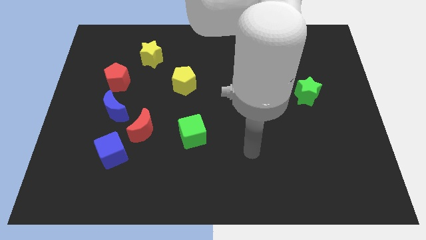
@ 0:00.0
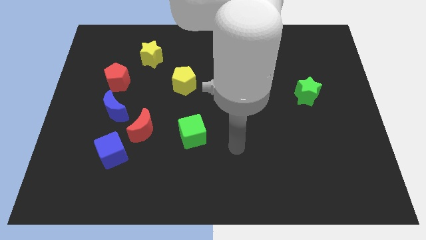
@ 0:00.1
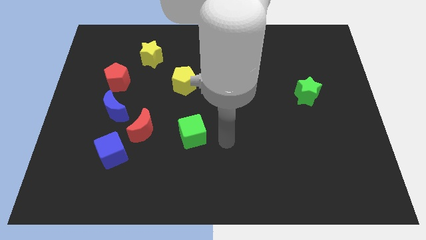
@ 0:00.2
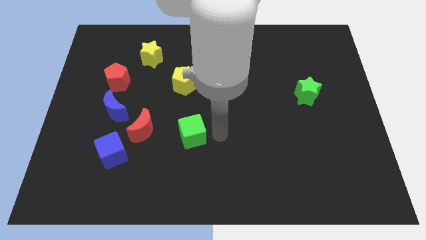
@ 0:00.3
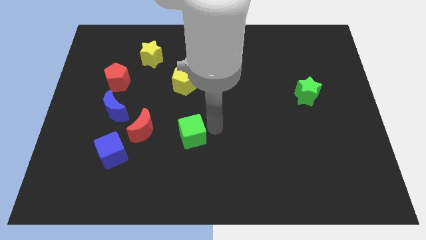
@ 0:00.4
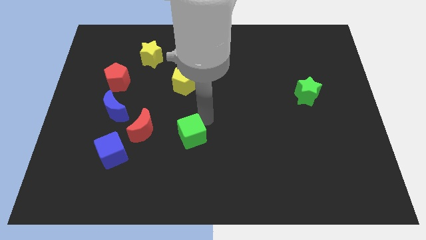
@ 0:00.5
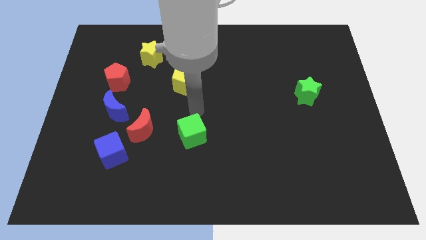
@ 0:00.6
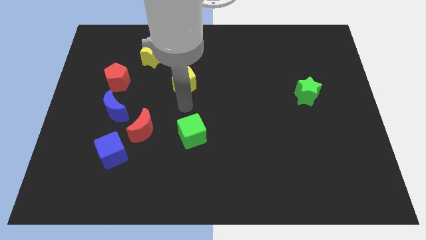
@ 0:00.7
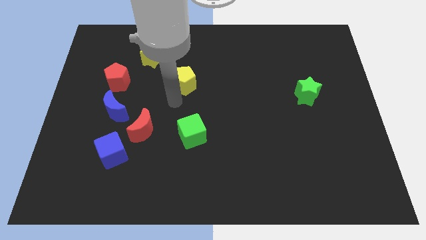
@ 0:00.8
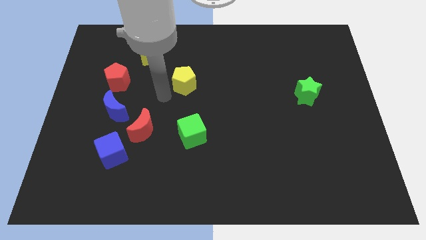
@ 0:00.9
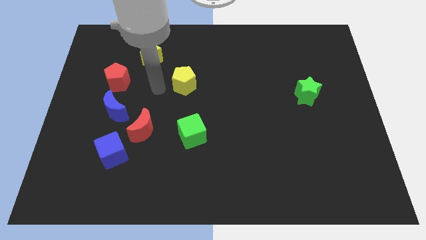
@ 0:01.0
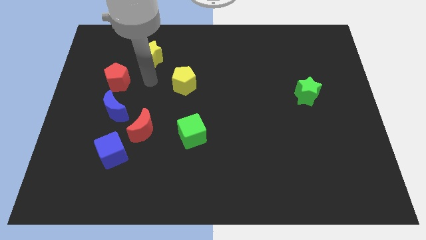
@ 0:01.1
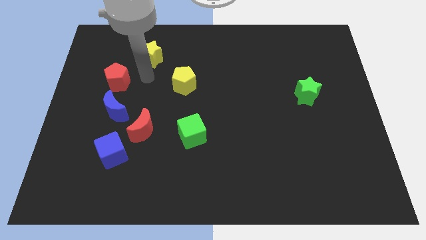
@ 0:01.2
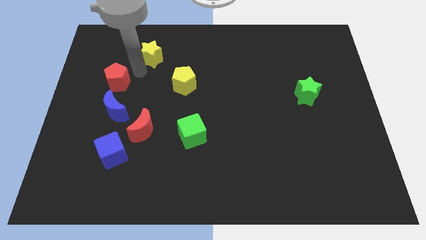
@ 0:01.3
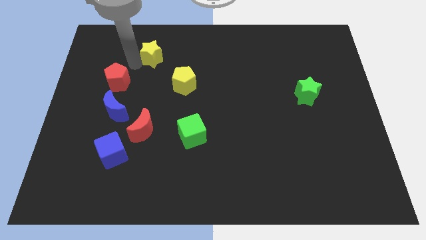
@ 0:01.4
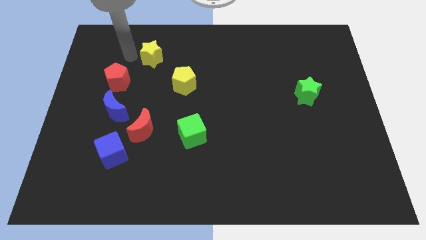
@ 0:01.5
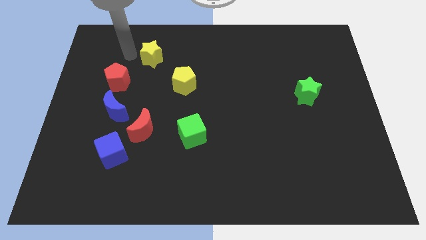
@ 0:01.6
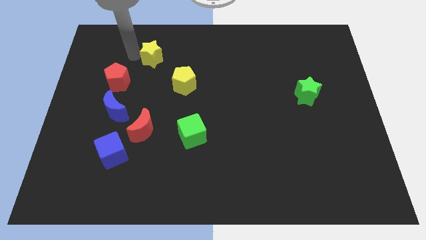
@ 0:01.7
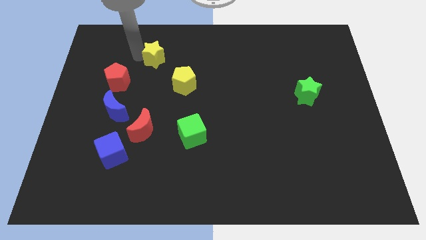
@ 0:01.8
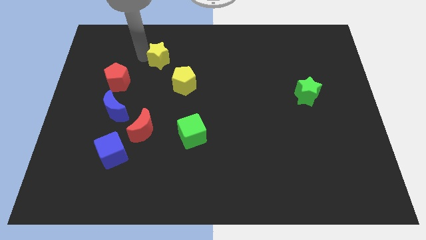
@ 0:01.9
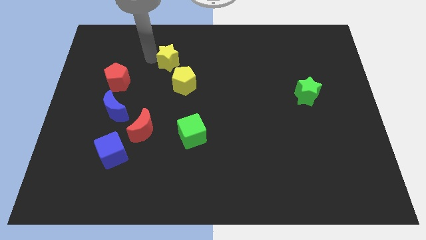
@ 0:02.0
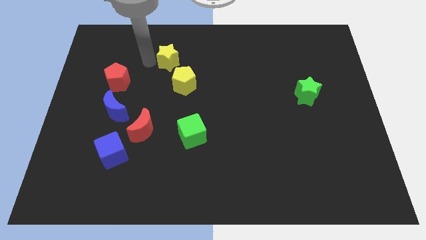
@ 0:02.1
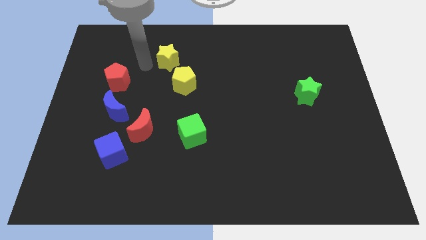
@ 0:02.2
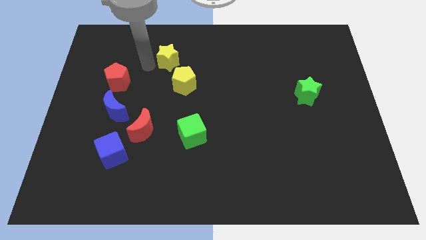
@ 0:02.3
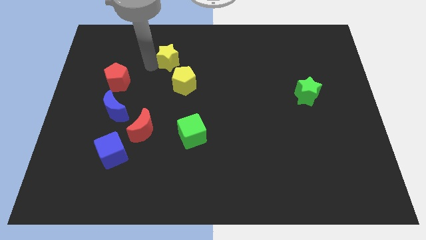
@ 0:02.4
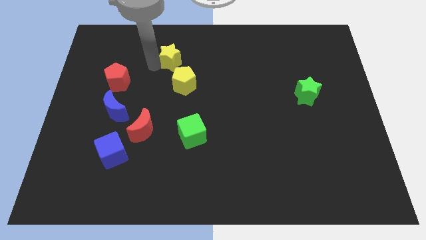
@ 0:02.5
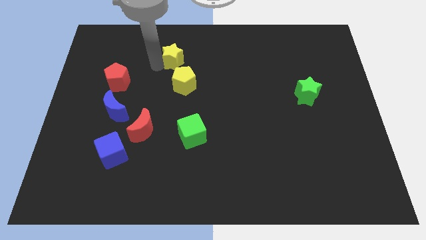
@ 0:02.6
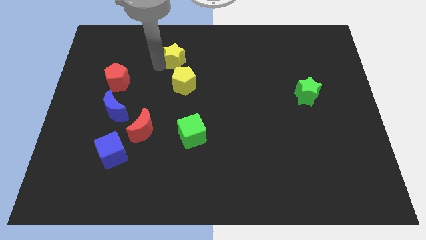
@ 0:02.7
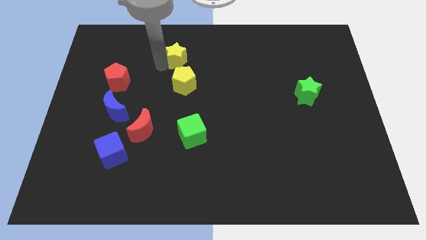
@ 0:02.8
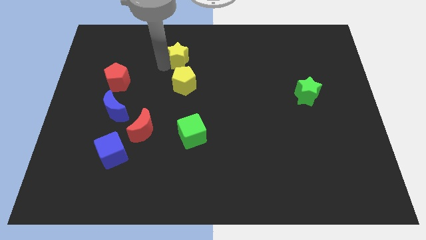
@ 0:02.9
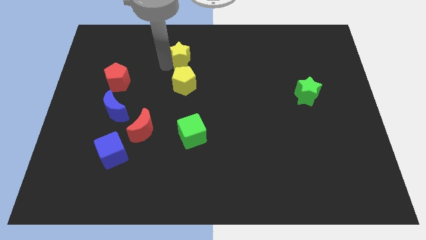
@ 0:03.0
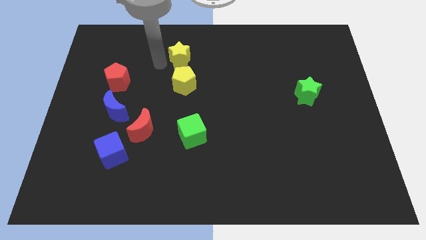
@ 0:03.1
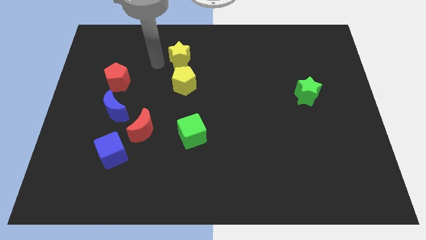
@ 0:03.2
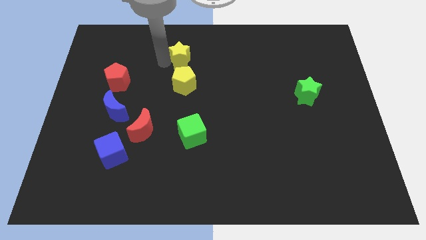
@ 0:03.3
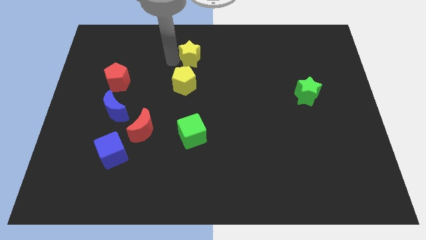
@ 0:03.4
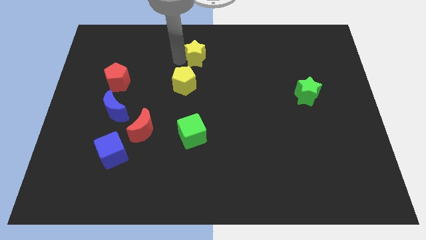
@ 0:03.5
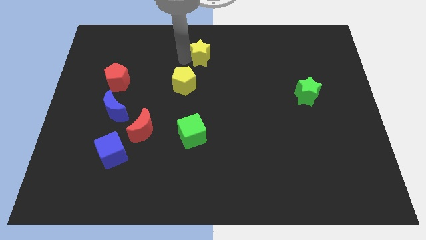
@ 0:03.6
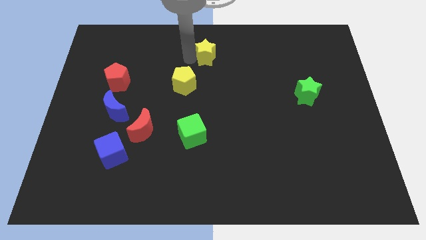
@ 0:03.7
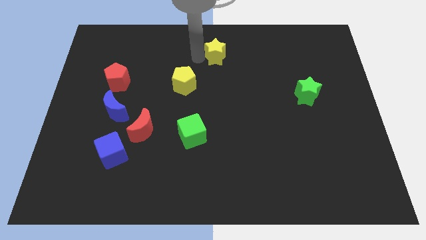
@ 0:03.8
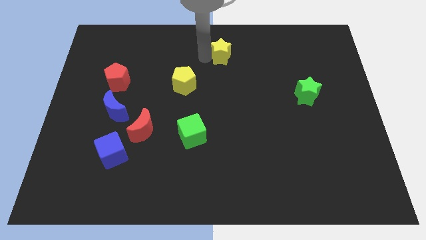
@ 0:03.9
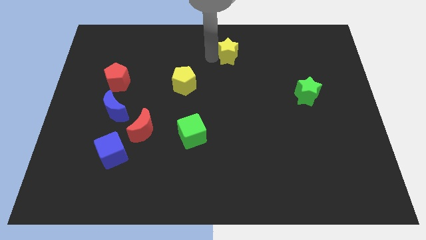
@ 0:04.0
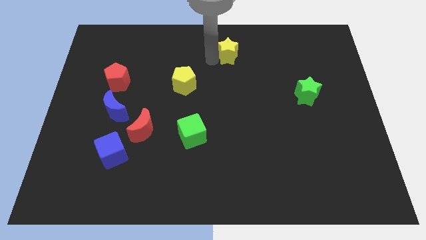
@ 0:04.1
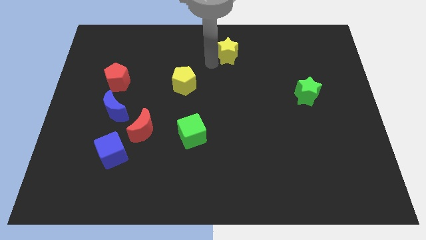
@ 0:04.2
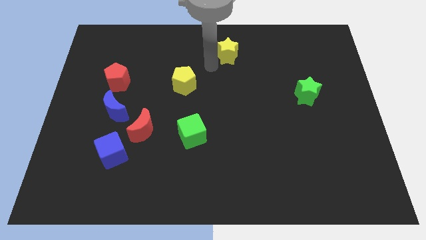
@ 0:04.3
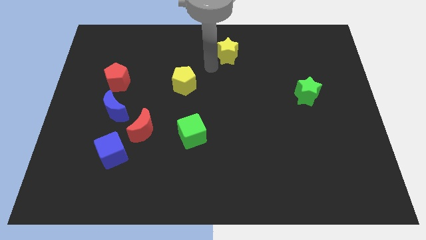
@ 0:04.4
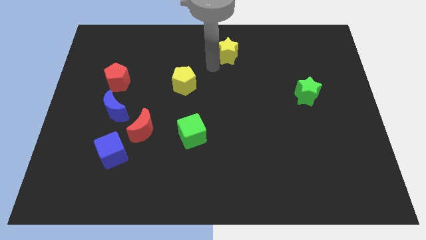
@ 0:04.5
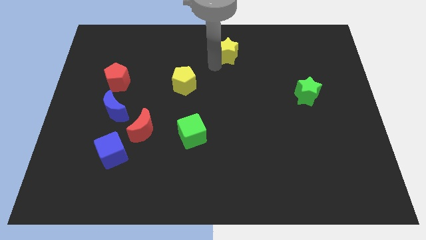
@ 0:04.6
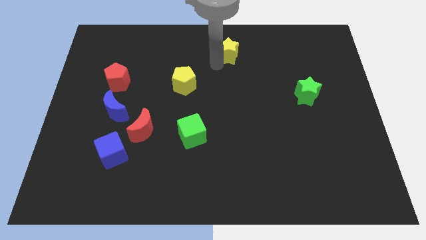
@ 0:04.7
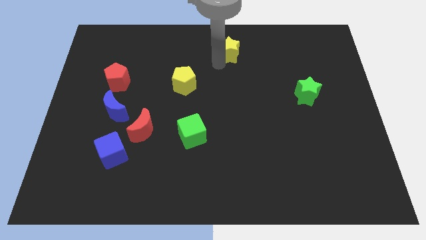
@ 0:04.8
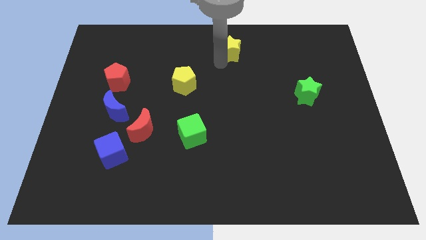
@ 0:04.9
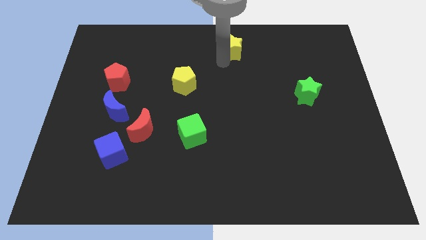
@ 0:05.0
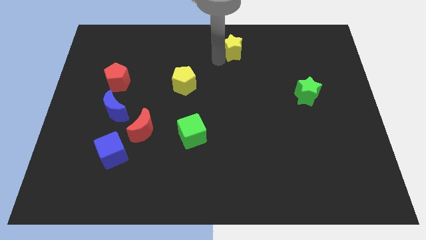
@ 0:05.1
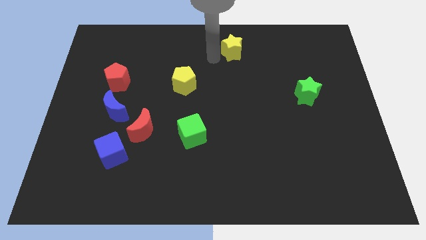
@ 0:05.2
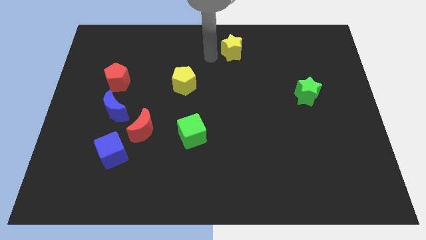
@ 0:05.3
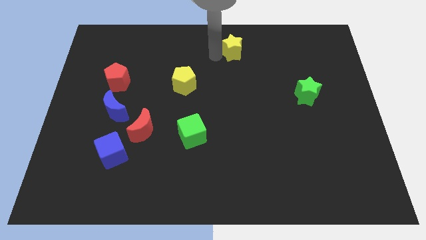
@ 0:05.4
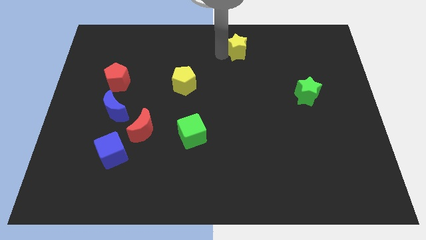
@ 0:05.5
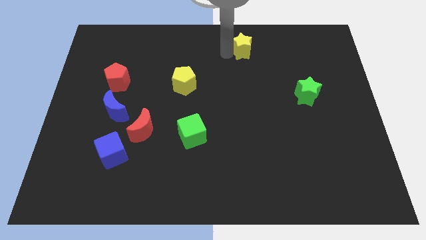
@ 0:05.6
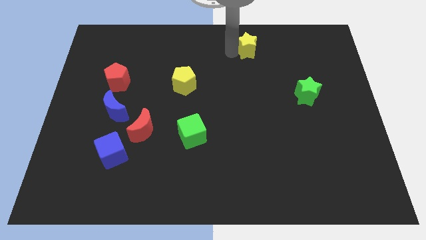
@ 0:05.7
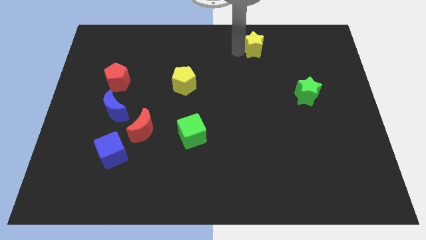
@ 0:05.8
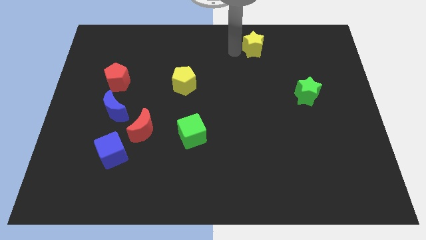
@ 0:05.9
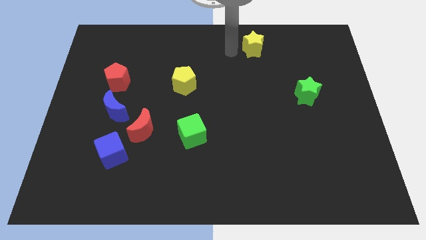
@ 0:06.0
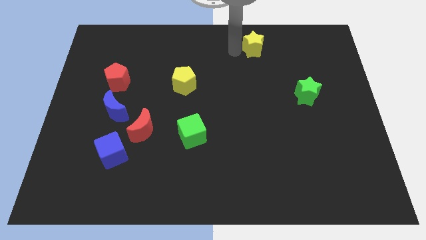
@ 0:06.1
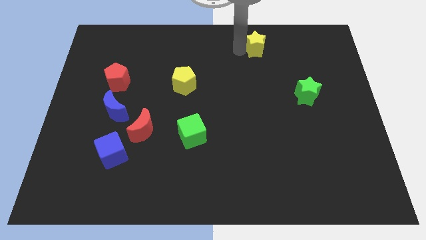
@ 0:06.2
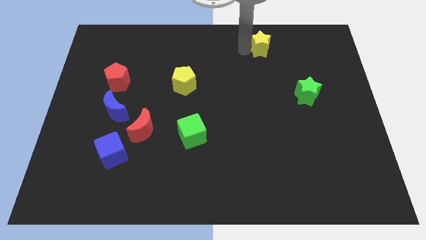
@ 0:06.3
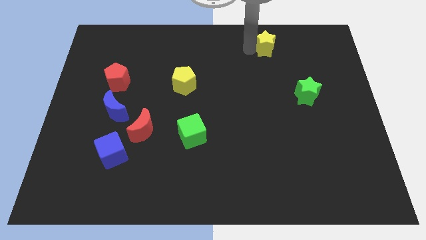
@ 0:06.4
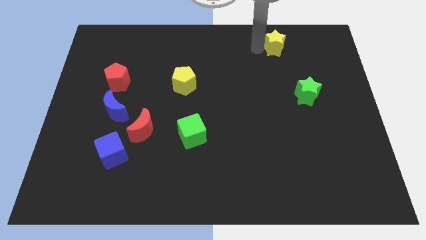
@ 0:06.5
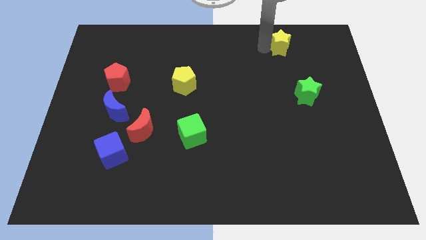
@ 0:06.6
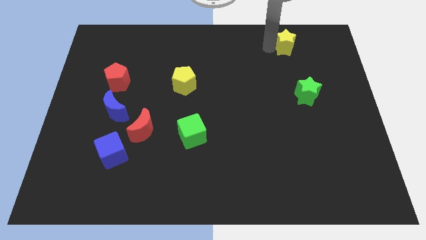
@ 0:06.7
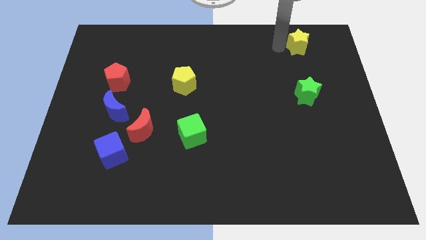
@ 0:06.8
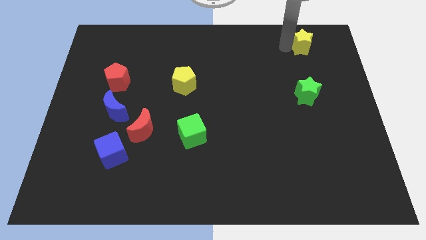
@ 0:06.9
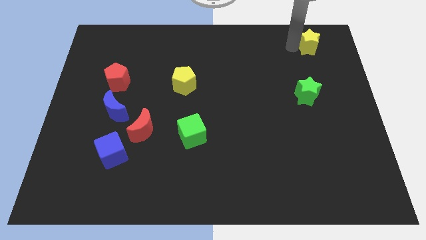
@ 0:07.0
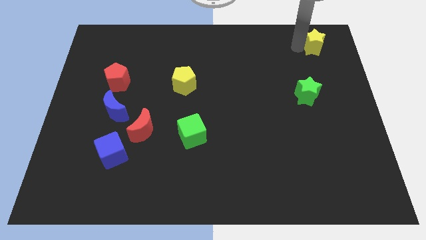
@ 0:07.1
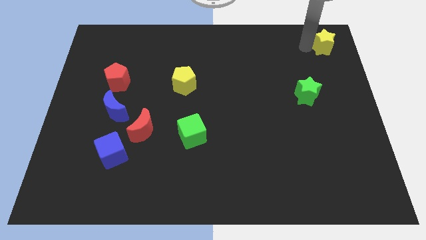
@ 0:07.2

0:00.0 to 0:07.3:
put the yellow star to the top right corner
